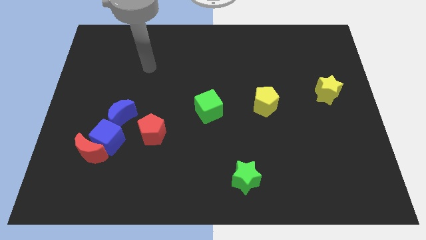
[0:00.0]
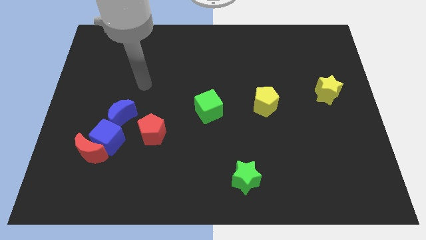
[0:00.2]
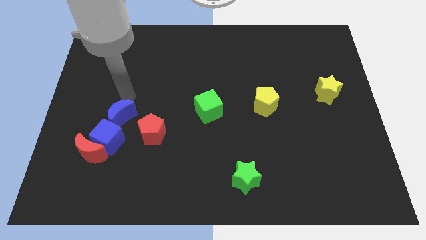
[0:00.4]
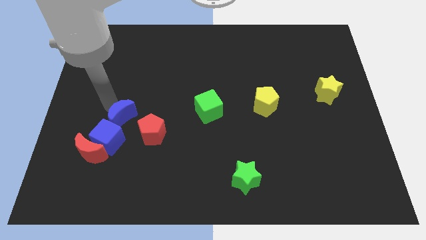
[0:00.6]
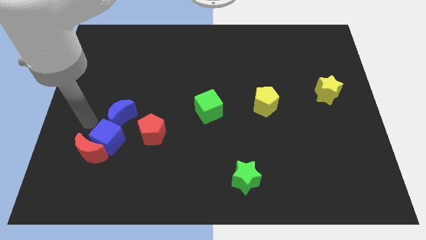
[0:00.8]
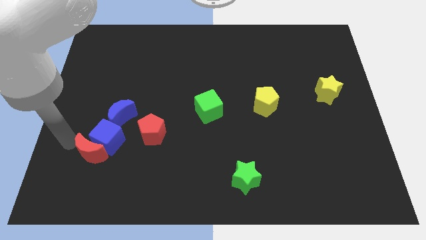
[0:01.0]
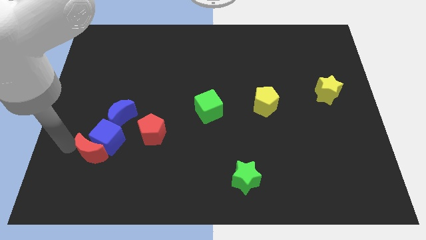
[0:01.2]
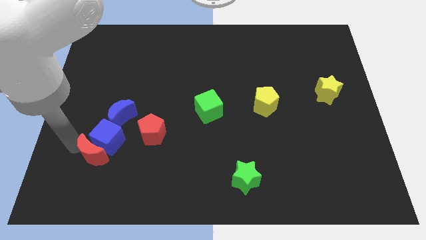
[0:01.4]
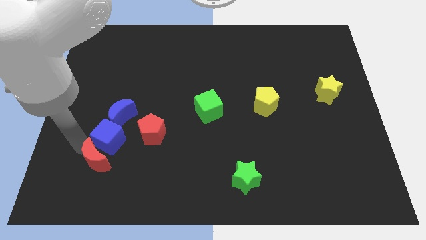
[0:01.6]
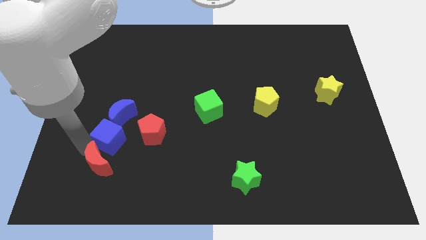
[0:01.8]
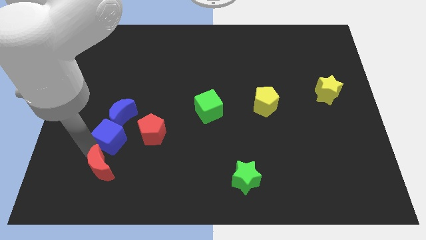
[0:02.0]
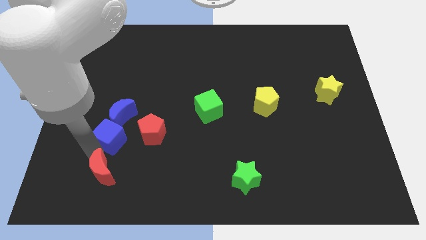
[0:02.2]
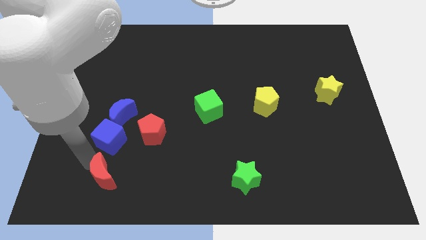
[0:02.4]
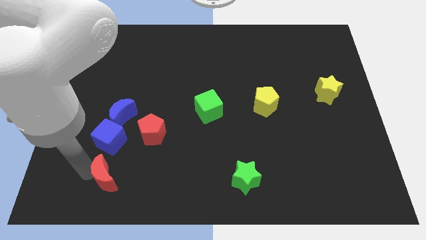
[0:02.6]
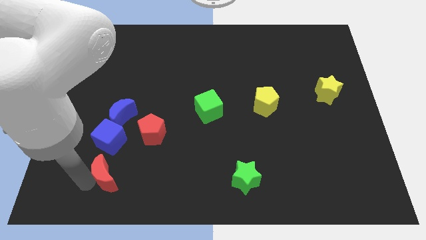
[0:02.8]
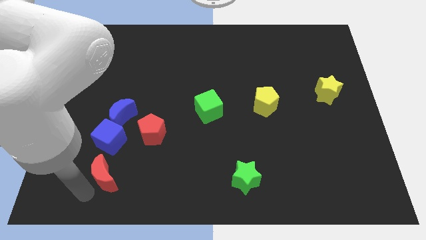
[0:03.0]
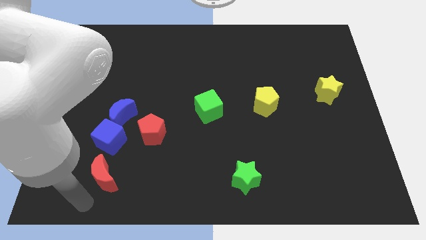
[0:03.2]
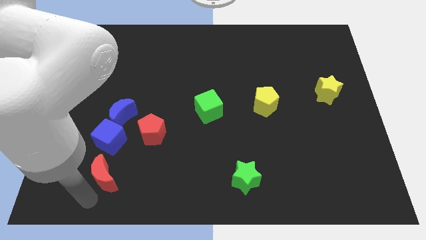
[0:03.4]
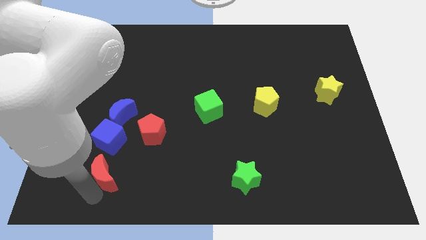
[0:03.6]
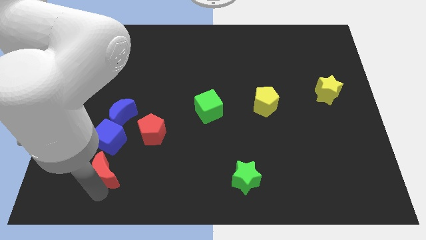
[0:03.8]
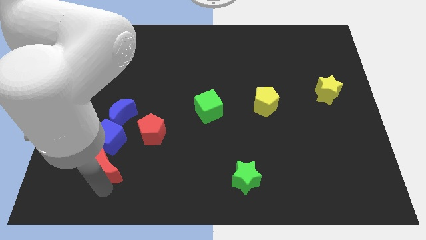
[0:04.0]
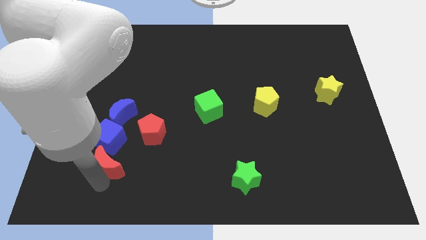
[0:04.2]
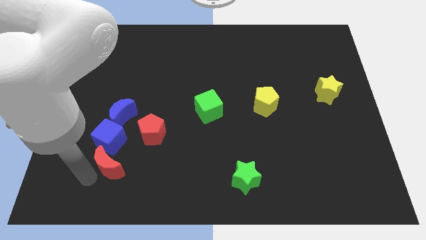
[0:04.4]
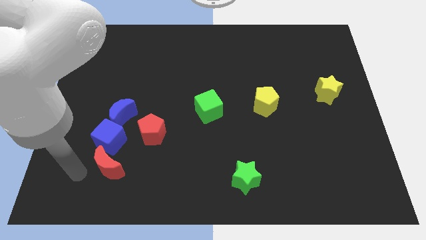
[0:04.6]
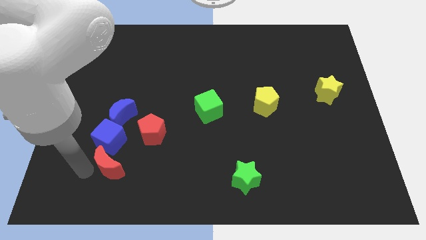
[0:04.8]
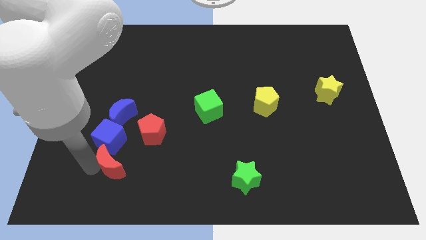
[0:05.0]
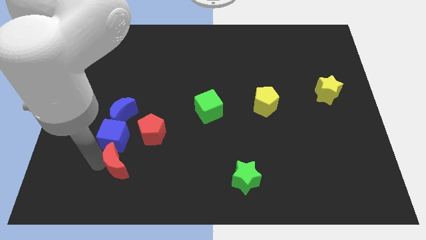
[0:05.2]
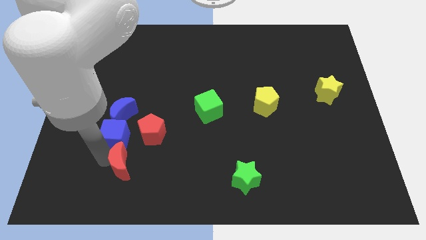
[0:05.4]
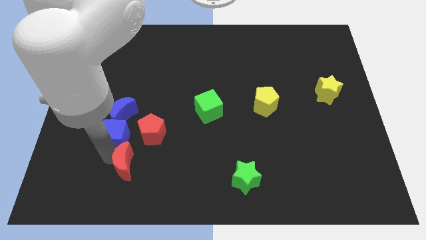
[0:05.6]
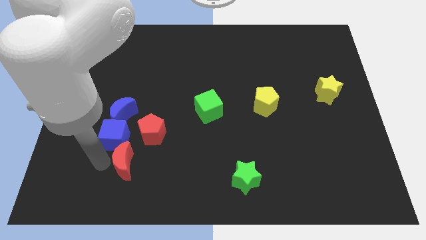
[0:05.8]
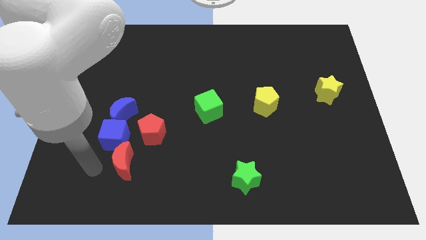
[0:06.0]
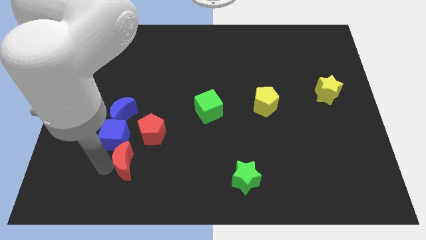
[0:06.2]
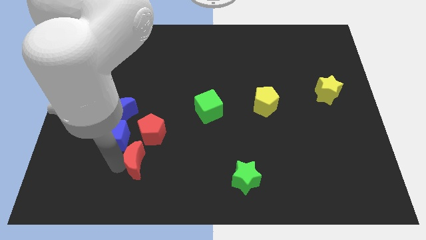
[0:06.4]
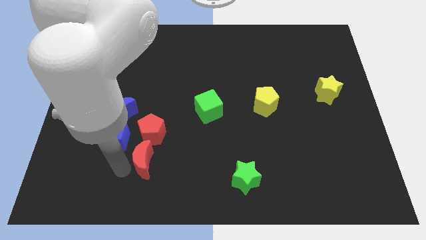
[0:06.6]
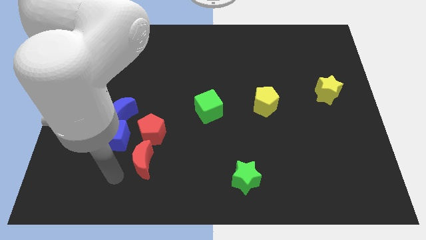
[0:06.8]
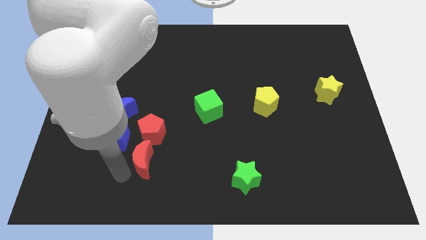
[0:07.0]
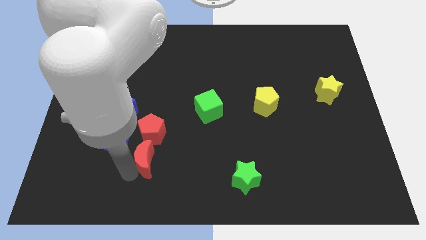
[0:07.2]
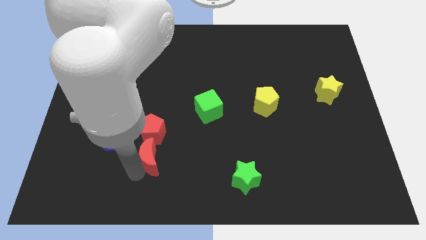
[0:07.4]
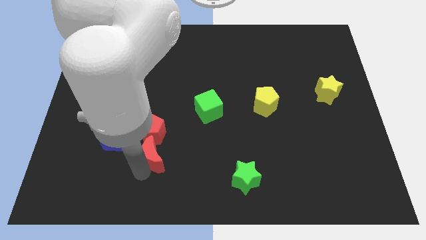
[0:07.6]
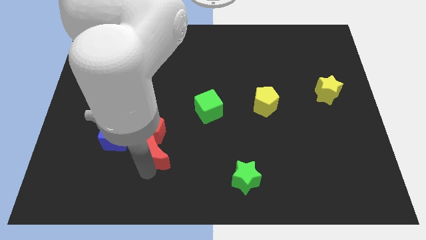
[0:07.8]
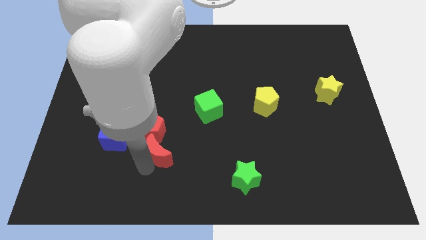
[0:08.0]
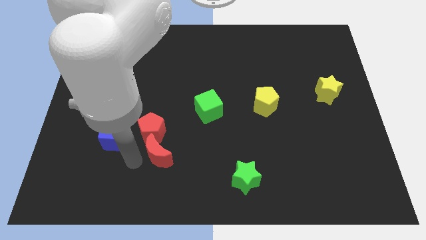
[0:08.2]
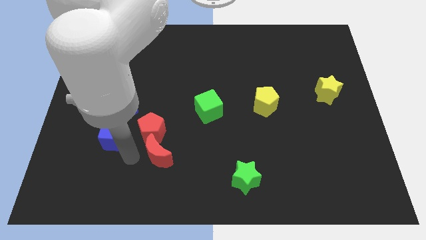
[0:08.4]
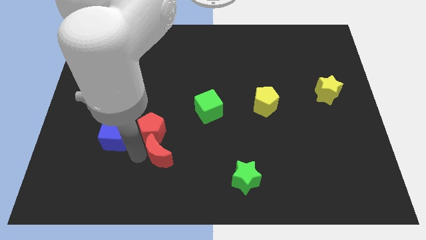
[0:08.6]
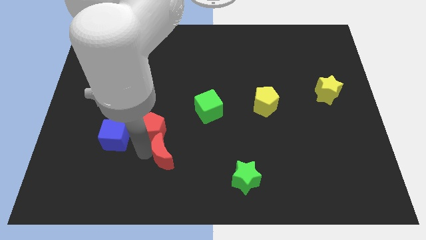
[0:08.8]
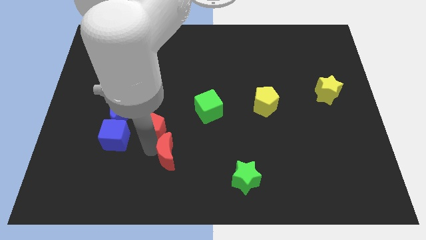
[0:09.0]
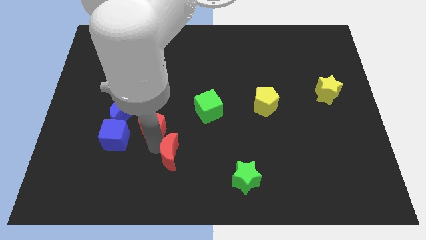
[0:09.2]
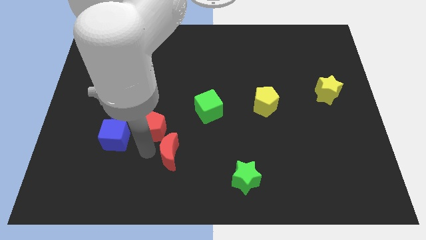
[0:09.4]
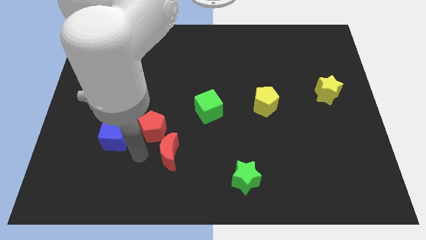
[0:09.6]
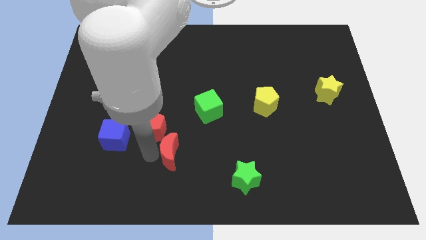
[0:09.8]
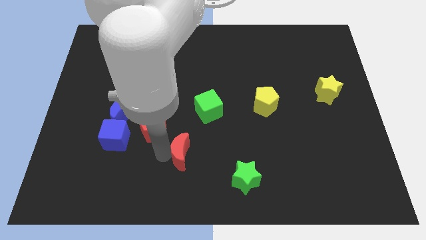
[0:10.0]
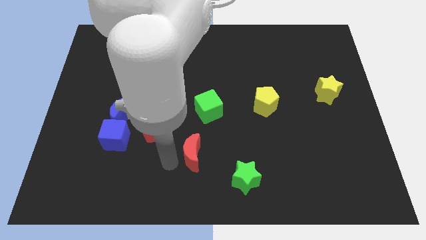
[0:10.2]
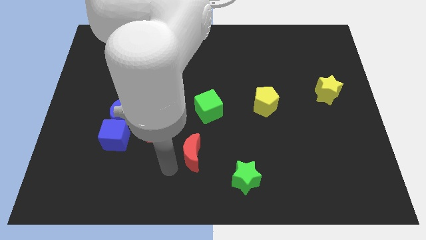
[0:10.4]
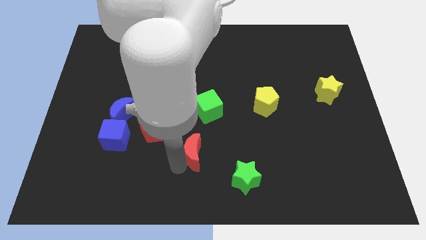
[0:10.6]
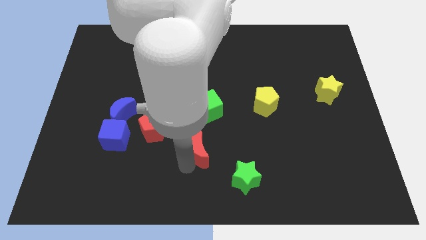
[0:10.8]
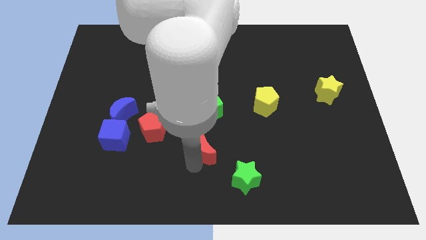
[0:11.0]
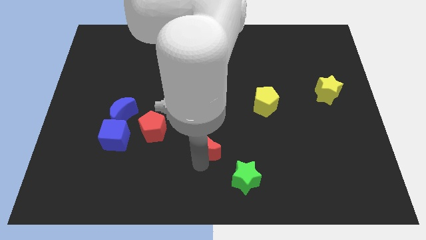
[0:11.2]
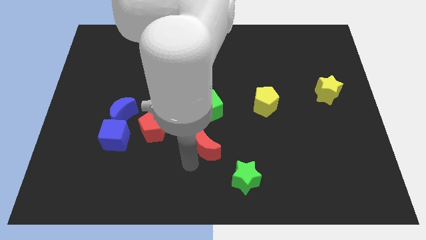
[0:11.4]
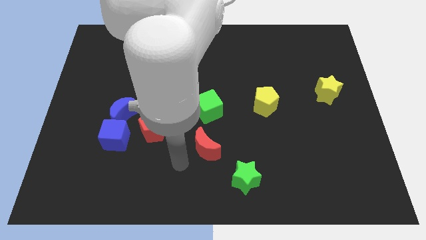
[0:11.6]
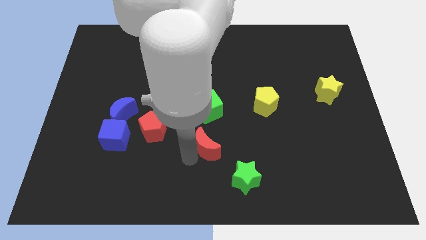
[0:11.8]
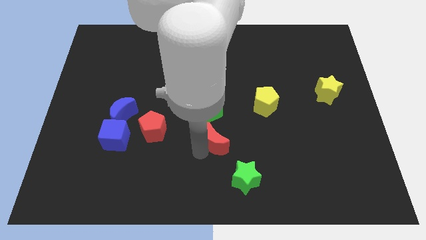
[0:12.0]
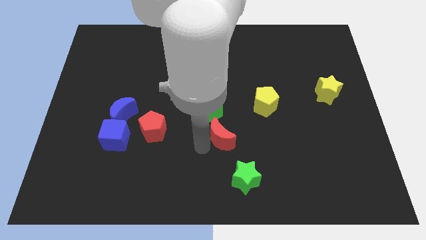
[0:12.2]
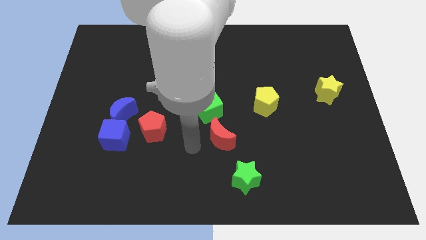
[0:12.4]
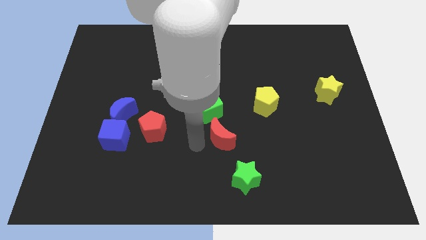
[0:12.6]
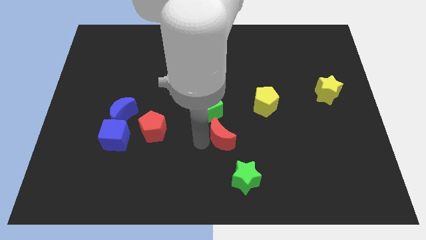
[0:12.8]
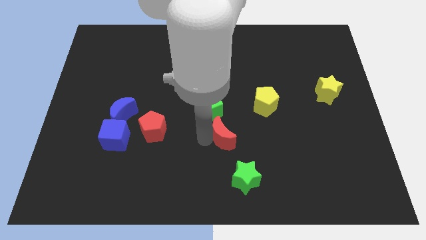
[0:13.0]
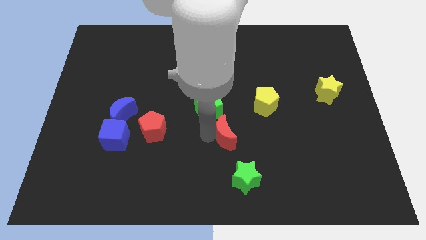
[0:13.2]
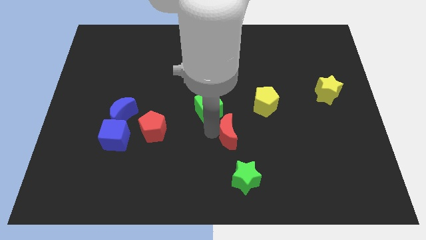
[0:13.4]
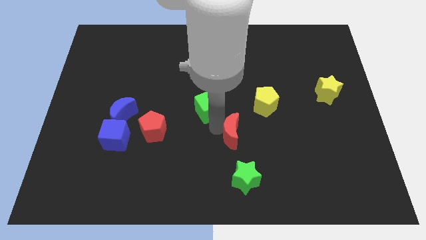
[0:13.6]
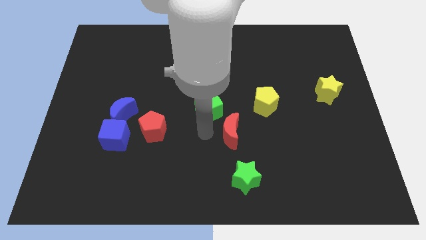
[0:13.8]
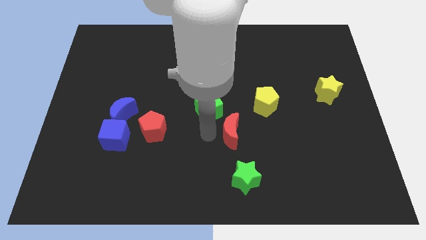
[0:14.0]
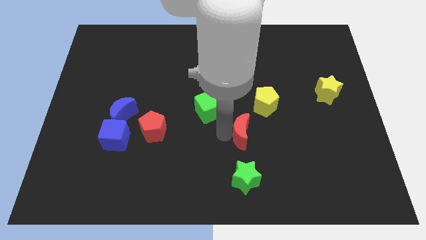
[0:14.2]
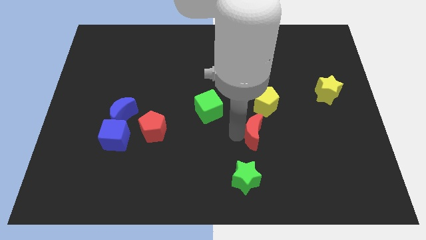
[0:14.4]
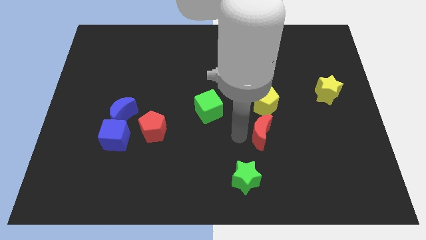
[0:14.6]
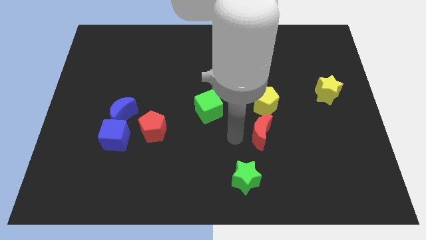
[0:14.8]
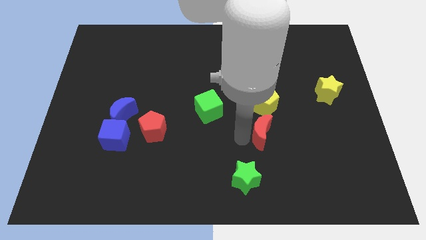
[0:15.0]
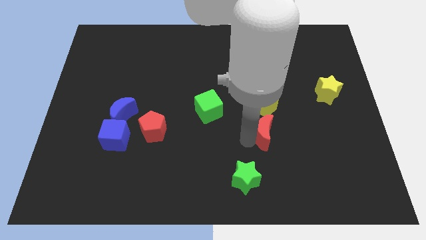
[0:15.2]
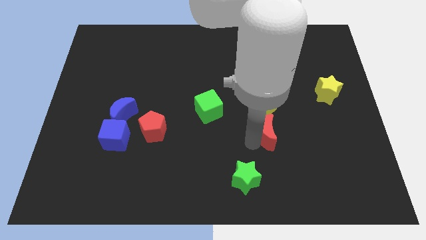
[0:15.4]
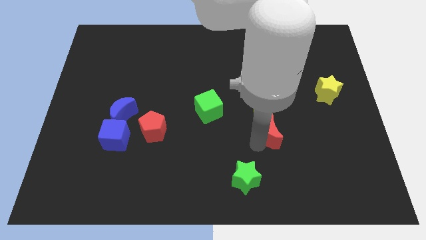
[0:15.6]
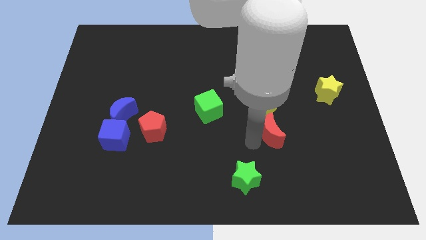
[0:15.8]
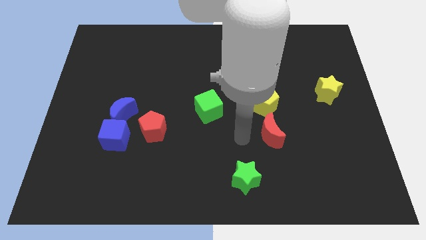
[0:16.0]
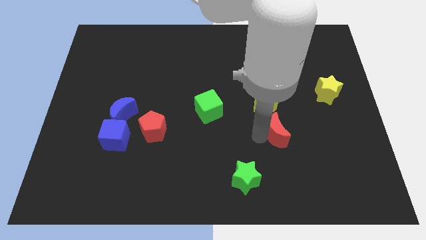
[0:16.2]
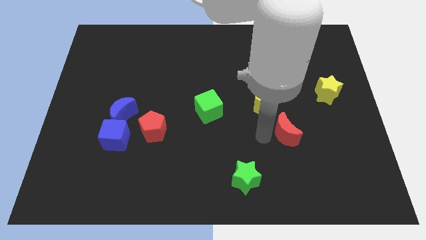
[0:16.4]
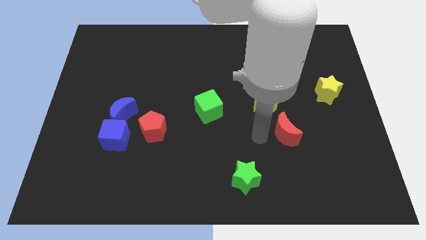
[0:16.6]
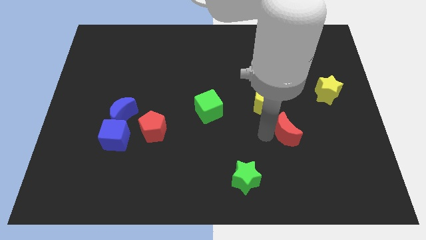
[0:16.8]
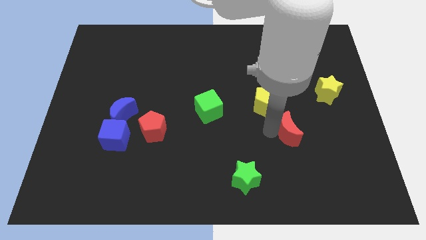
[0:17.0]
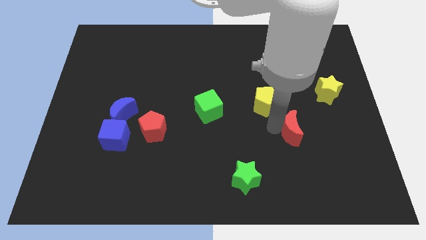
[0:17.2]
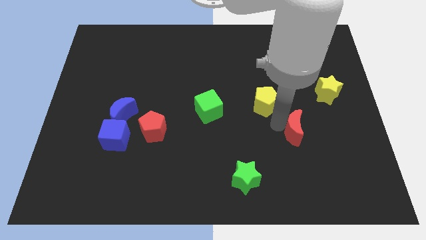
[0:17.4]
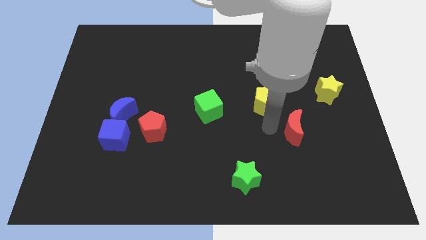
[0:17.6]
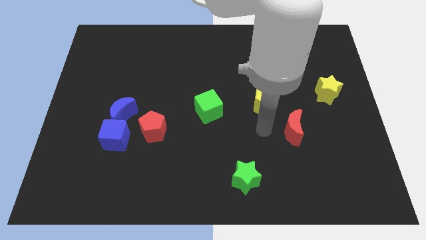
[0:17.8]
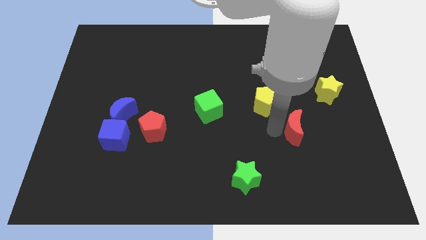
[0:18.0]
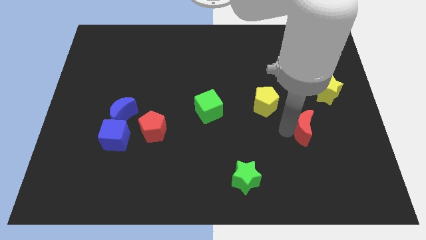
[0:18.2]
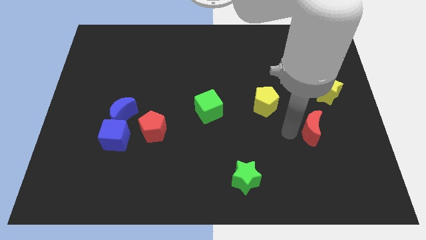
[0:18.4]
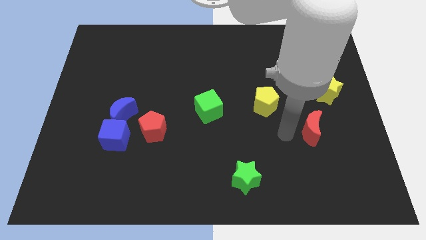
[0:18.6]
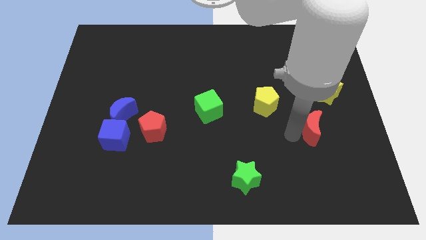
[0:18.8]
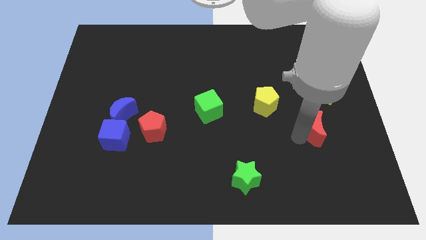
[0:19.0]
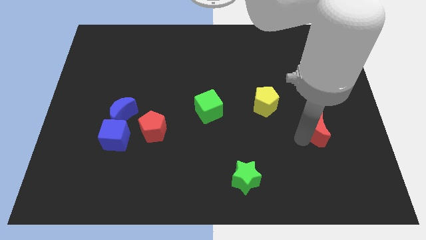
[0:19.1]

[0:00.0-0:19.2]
put the red moon below the yellow star
